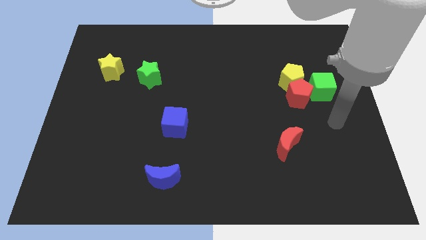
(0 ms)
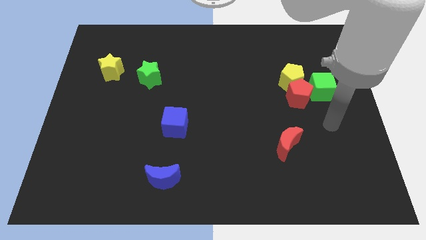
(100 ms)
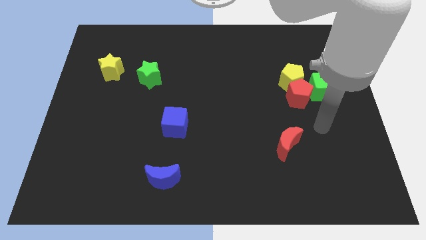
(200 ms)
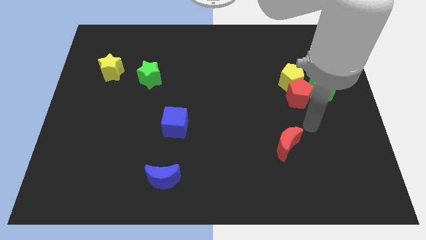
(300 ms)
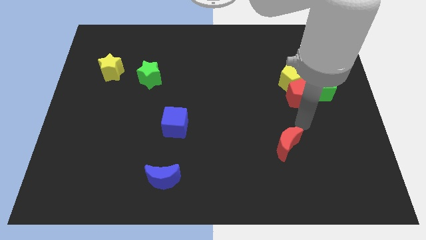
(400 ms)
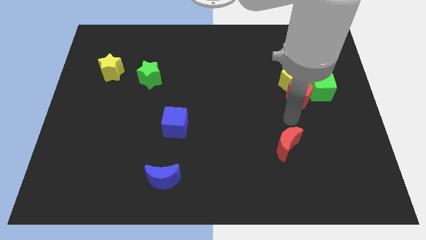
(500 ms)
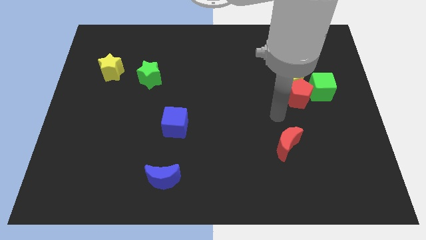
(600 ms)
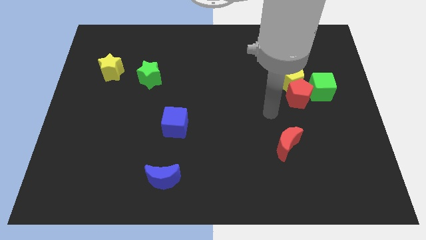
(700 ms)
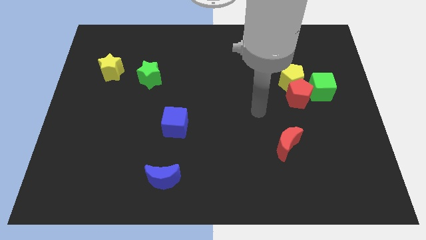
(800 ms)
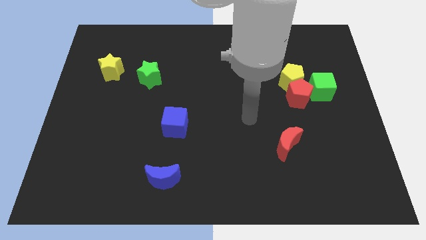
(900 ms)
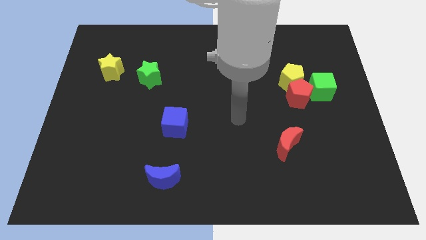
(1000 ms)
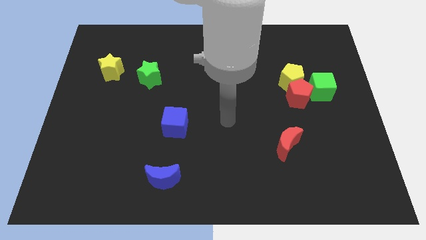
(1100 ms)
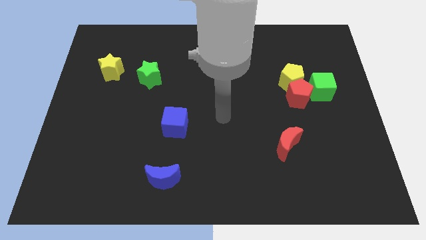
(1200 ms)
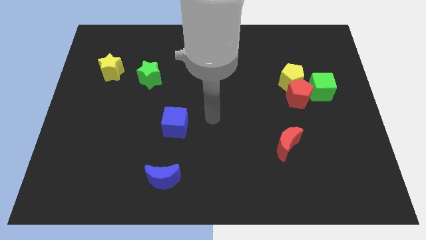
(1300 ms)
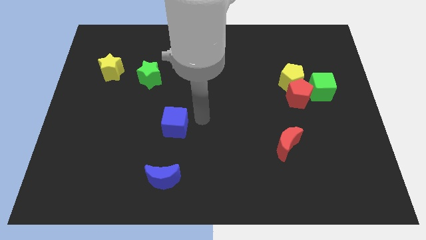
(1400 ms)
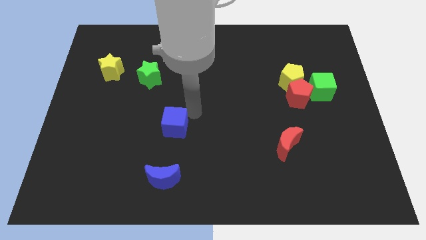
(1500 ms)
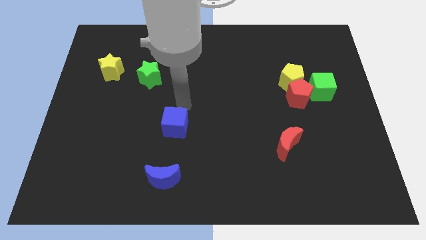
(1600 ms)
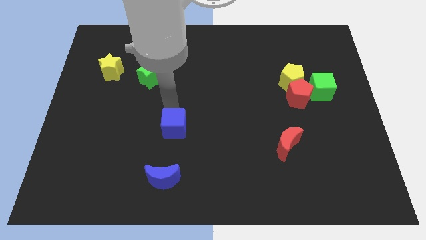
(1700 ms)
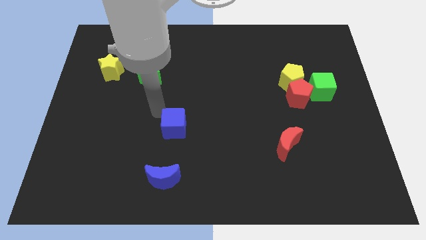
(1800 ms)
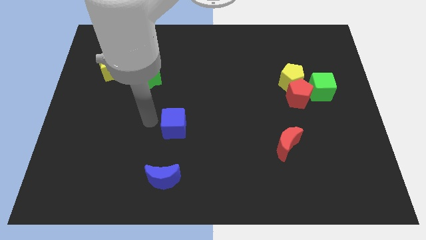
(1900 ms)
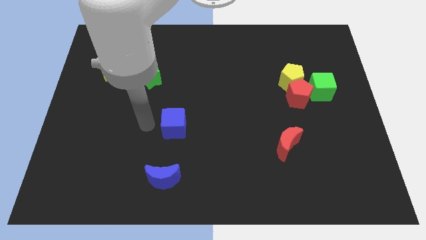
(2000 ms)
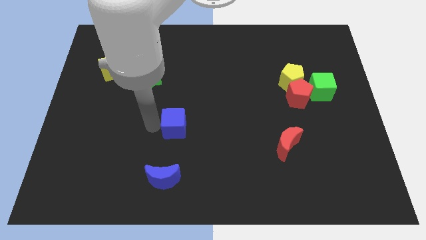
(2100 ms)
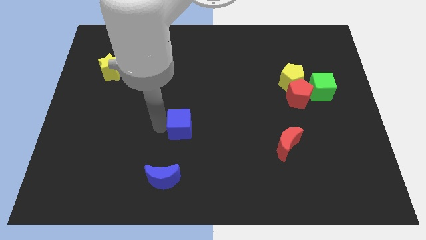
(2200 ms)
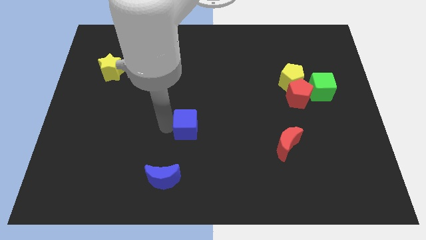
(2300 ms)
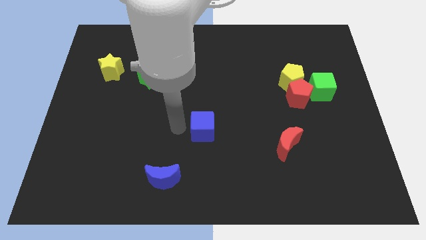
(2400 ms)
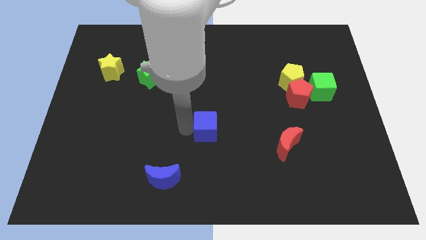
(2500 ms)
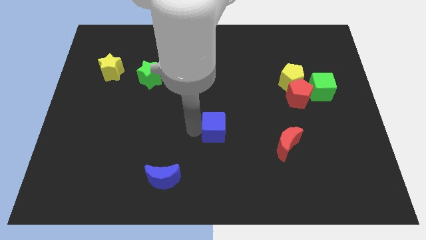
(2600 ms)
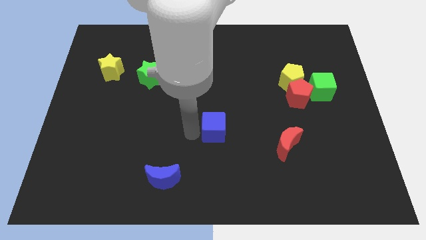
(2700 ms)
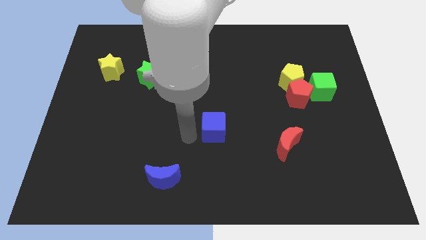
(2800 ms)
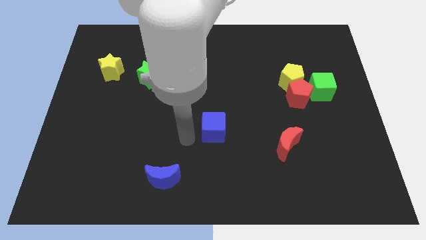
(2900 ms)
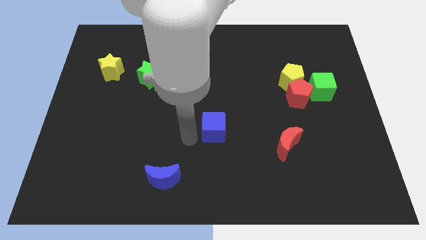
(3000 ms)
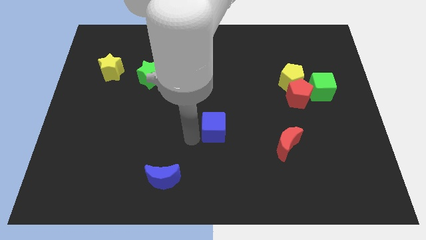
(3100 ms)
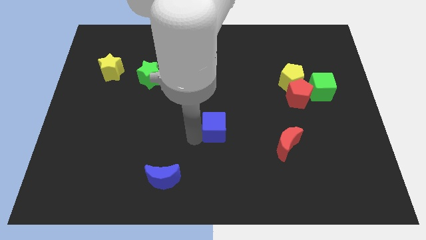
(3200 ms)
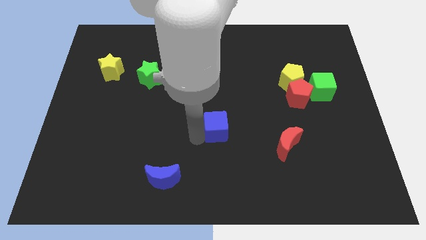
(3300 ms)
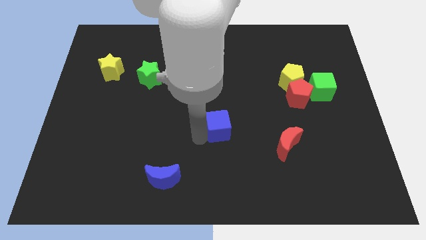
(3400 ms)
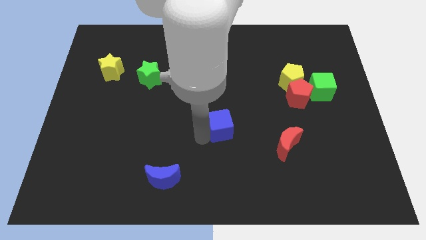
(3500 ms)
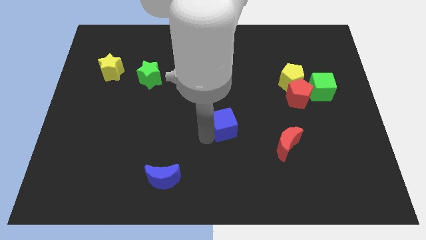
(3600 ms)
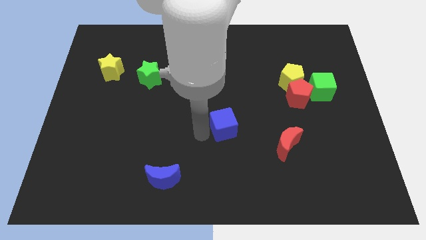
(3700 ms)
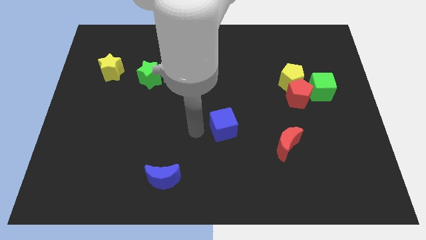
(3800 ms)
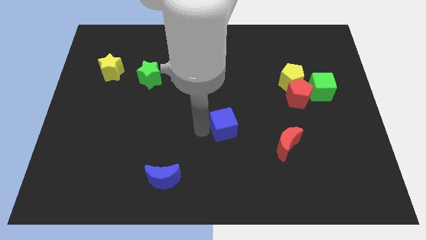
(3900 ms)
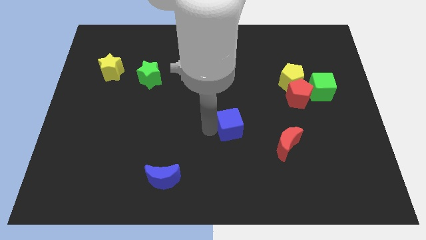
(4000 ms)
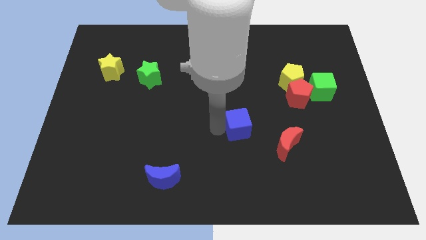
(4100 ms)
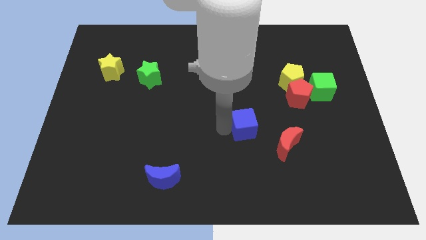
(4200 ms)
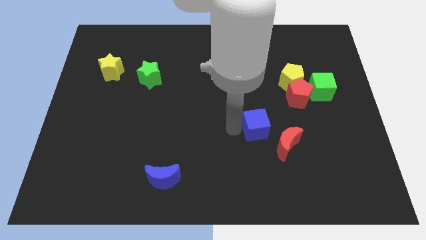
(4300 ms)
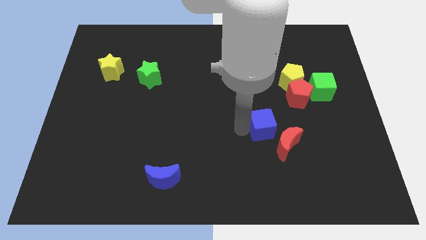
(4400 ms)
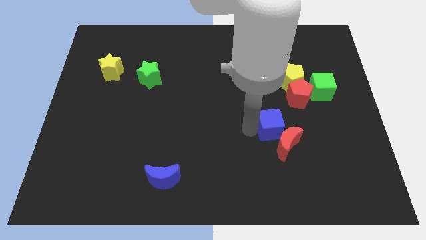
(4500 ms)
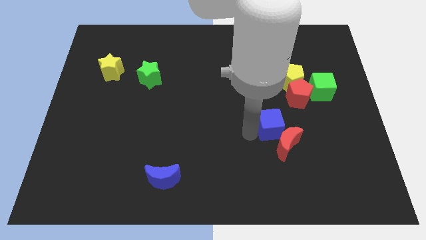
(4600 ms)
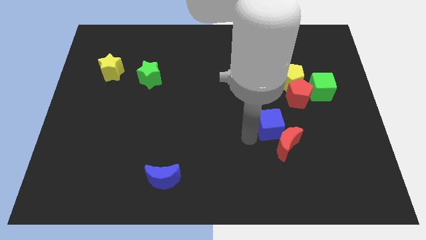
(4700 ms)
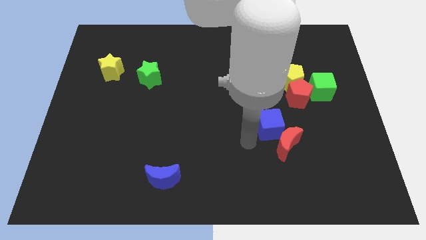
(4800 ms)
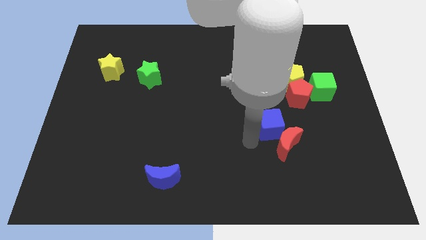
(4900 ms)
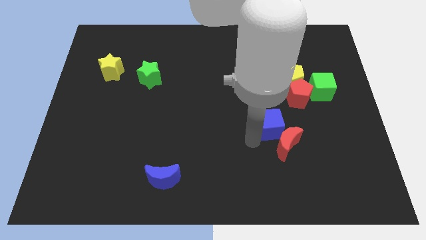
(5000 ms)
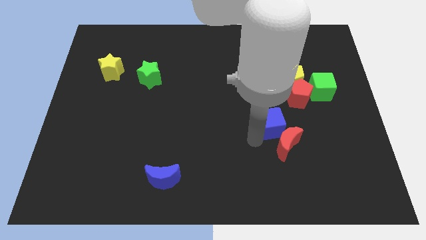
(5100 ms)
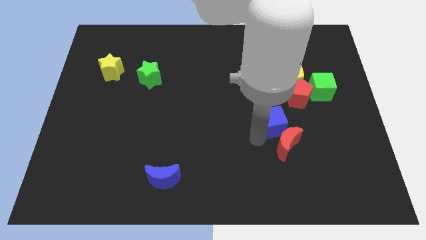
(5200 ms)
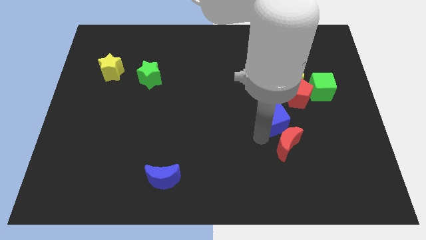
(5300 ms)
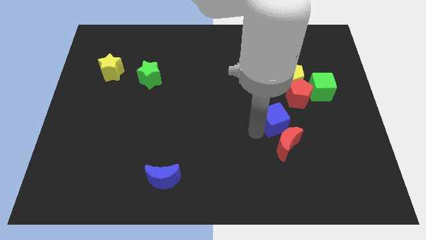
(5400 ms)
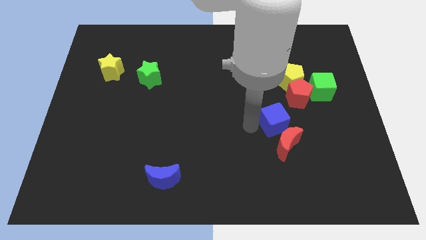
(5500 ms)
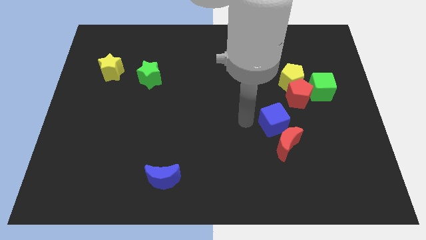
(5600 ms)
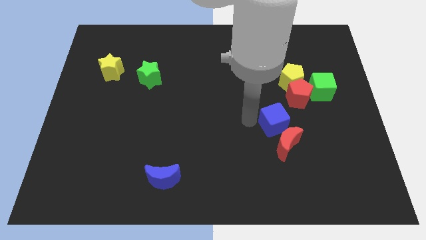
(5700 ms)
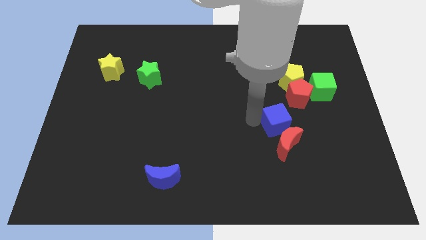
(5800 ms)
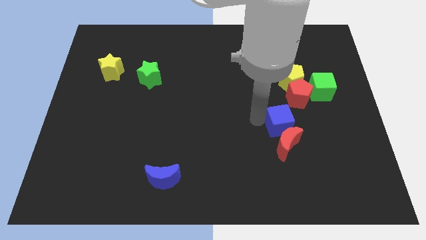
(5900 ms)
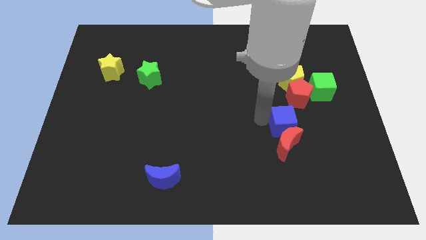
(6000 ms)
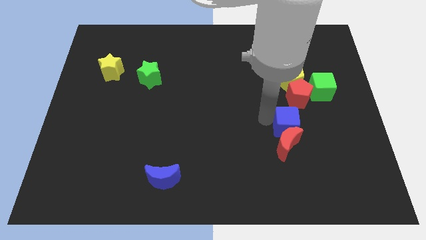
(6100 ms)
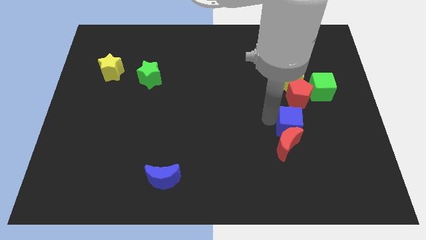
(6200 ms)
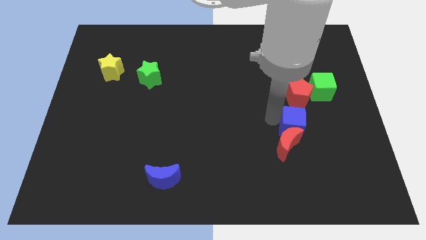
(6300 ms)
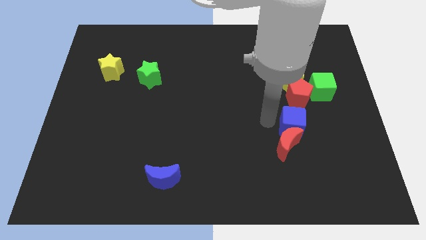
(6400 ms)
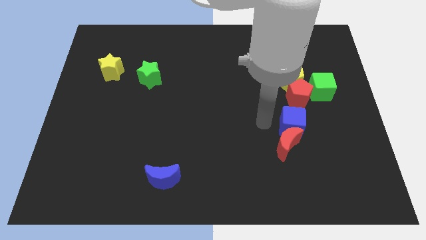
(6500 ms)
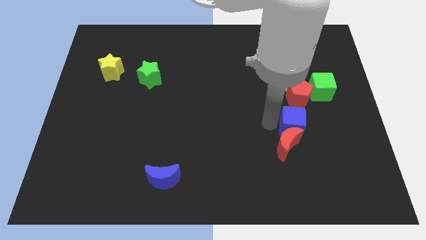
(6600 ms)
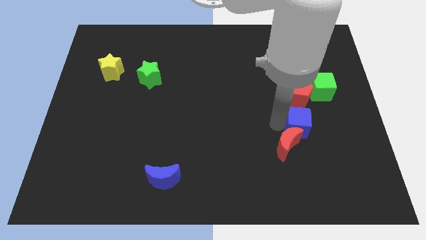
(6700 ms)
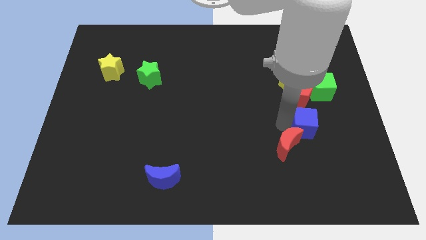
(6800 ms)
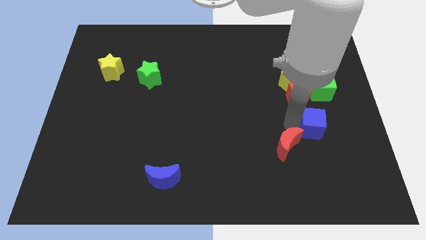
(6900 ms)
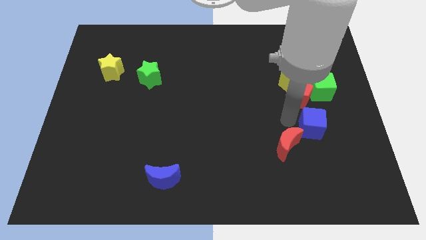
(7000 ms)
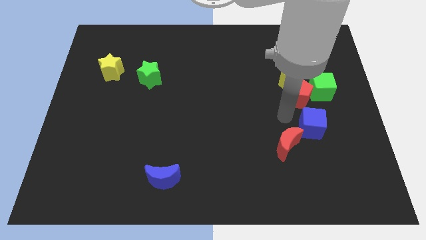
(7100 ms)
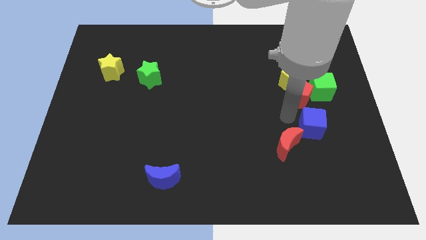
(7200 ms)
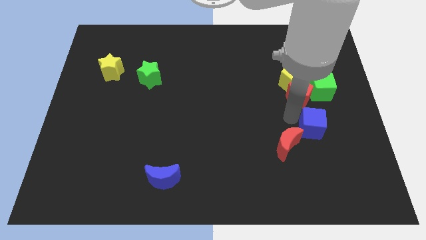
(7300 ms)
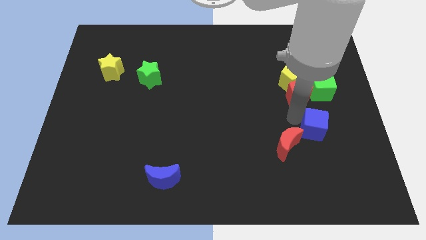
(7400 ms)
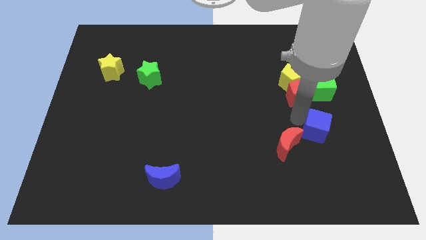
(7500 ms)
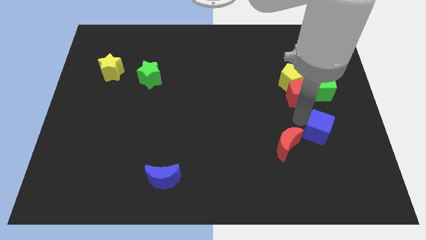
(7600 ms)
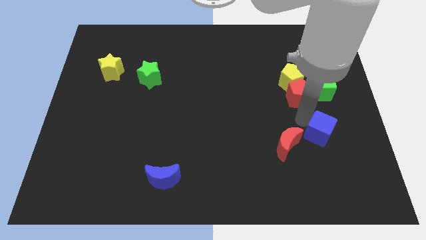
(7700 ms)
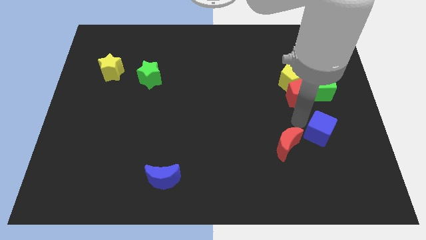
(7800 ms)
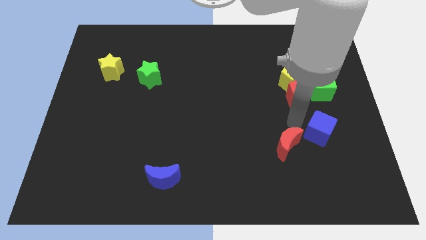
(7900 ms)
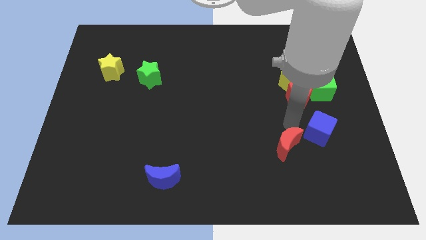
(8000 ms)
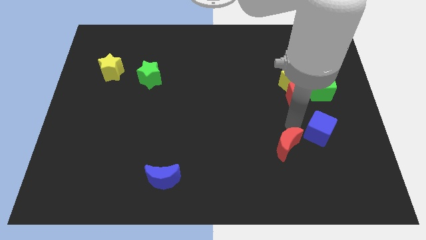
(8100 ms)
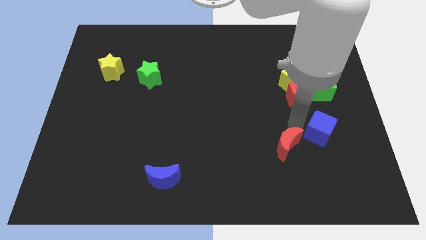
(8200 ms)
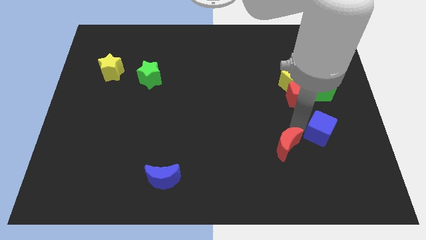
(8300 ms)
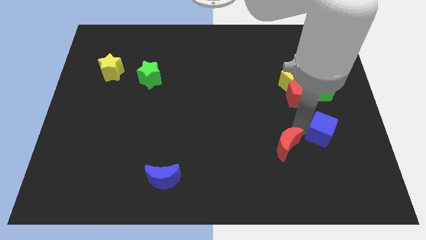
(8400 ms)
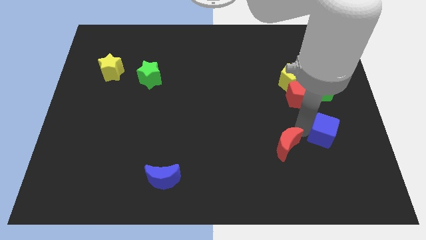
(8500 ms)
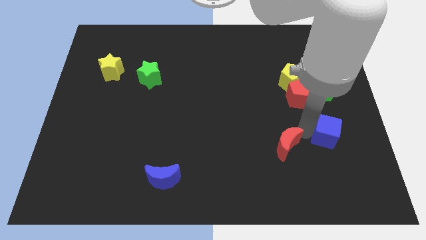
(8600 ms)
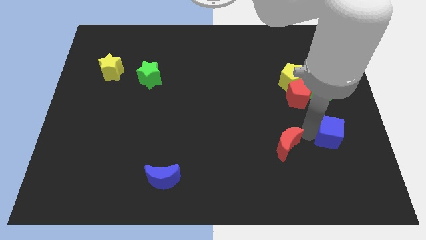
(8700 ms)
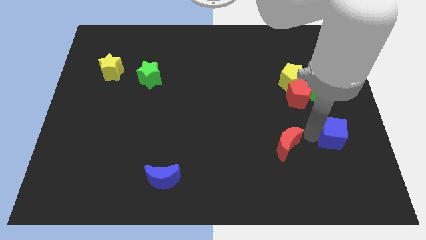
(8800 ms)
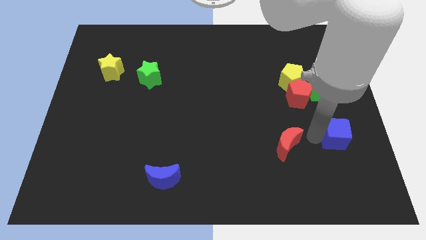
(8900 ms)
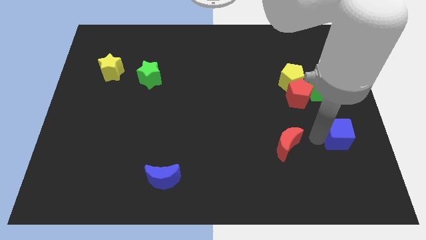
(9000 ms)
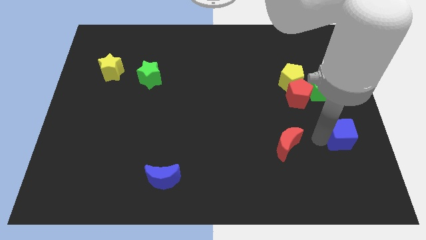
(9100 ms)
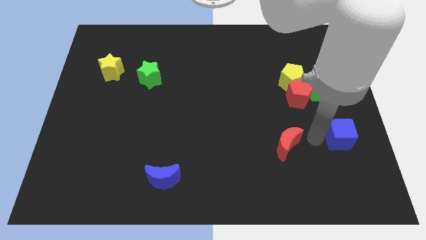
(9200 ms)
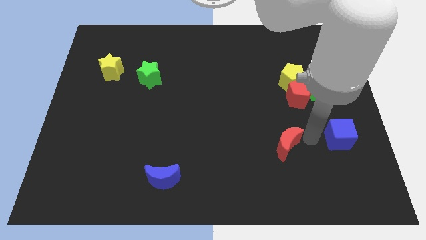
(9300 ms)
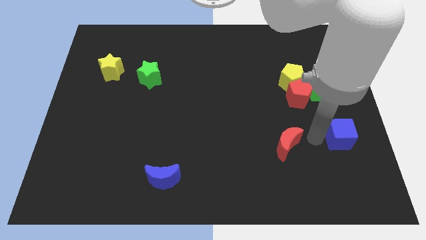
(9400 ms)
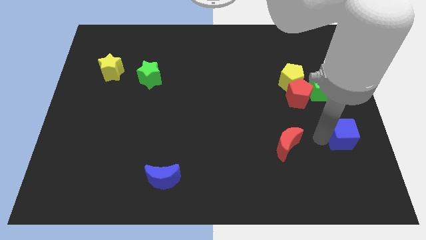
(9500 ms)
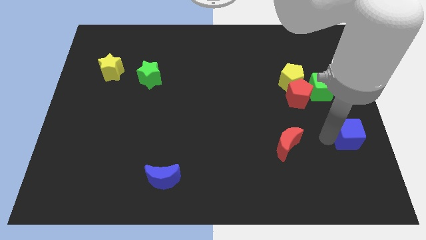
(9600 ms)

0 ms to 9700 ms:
move the blue cube to the right side
